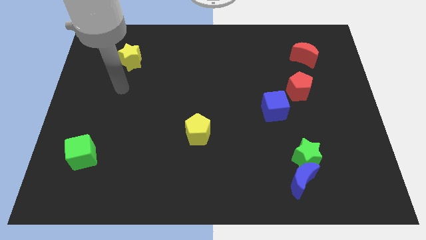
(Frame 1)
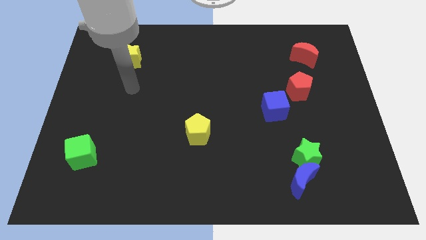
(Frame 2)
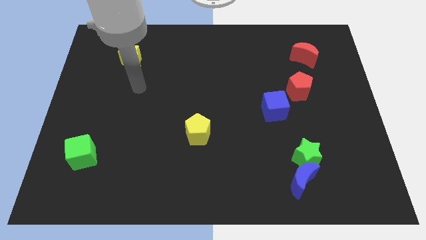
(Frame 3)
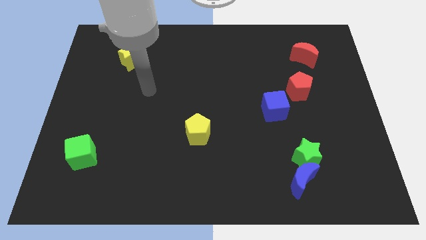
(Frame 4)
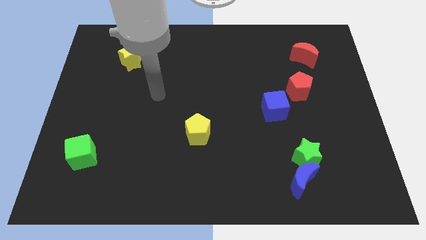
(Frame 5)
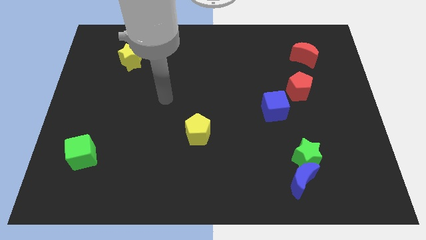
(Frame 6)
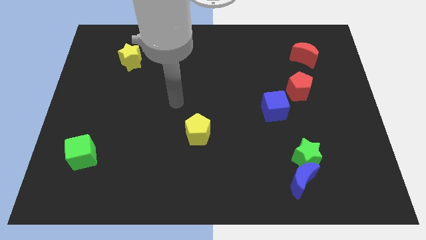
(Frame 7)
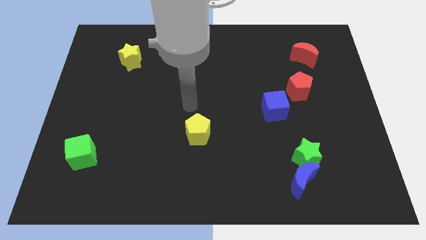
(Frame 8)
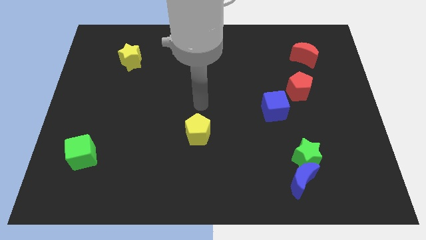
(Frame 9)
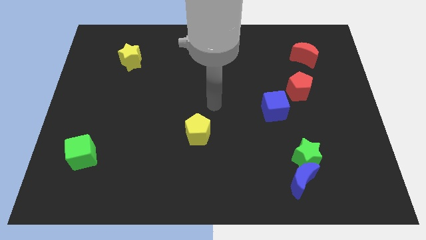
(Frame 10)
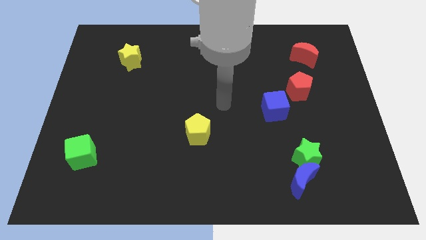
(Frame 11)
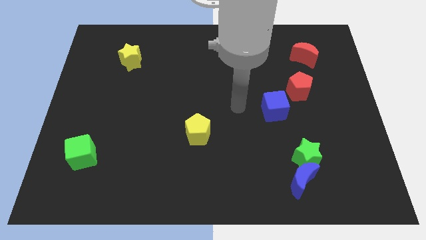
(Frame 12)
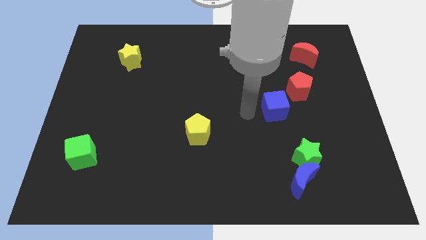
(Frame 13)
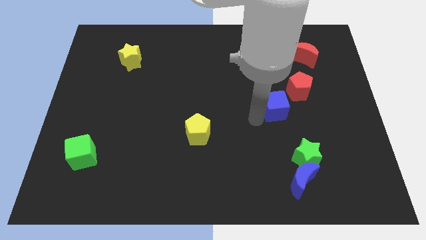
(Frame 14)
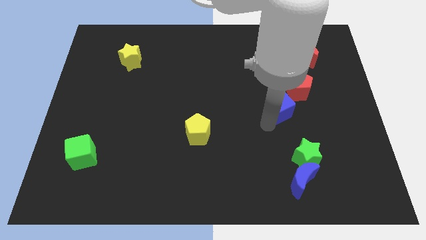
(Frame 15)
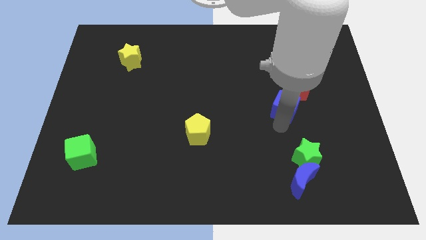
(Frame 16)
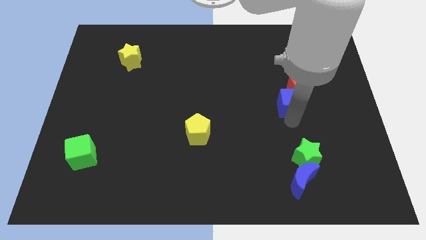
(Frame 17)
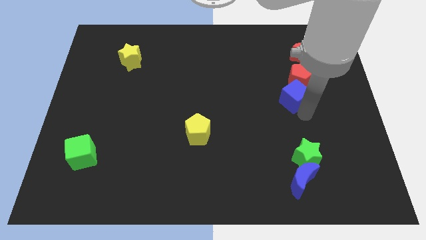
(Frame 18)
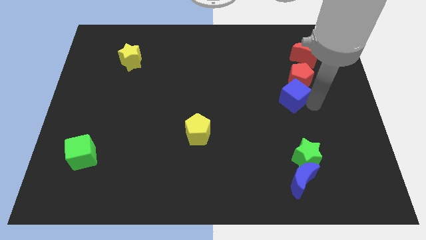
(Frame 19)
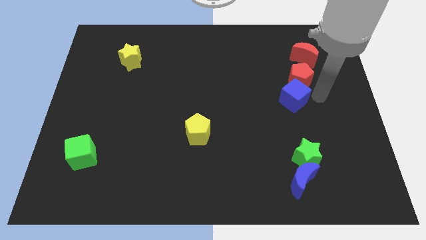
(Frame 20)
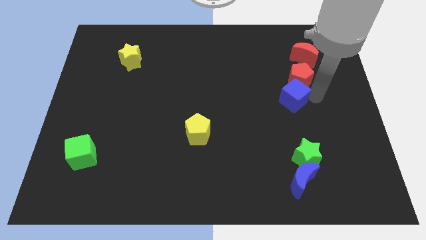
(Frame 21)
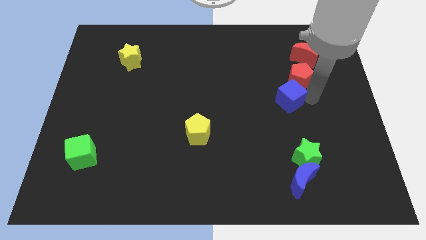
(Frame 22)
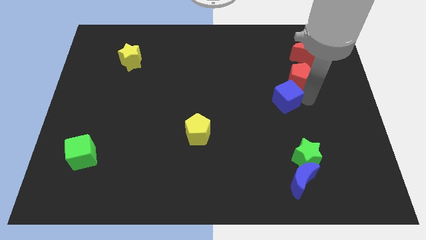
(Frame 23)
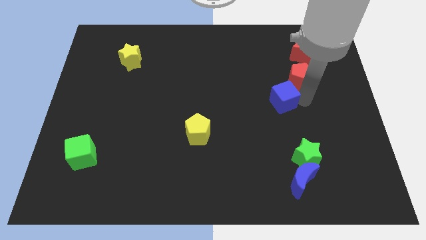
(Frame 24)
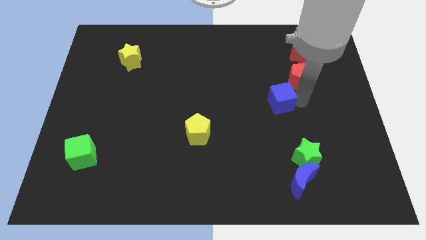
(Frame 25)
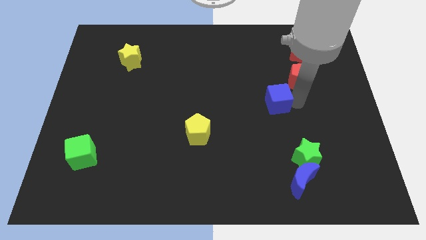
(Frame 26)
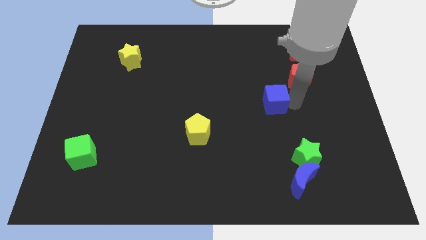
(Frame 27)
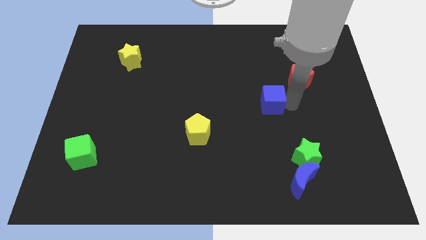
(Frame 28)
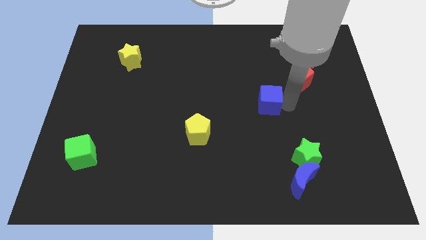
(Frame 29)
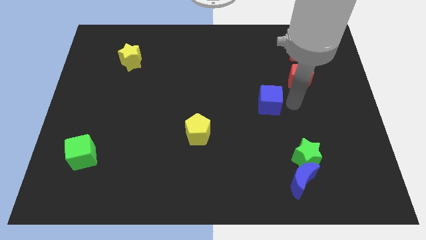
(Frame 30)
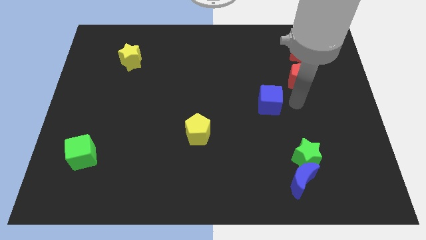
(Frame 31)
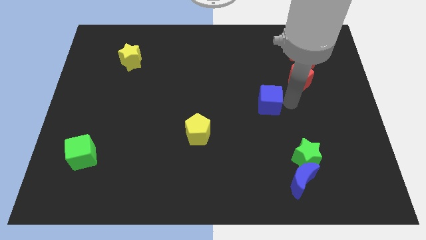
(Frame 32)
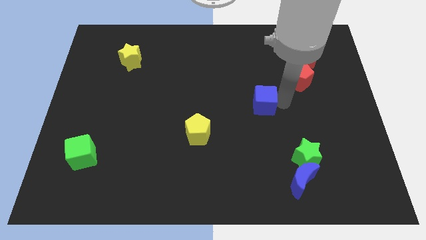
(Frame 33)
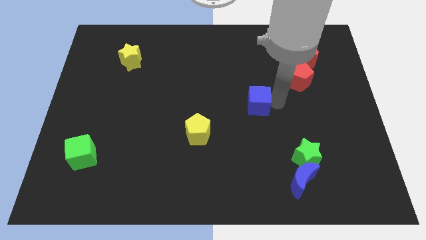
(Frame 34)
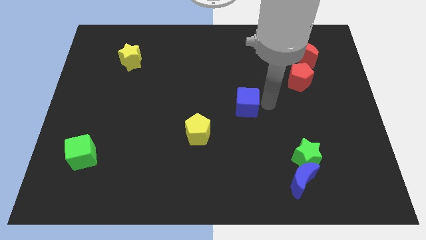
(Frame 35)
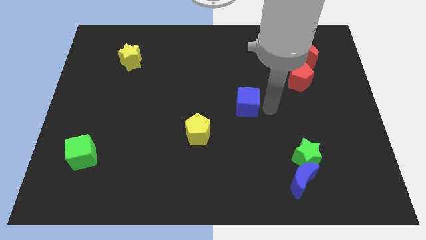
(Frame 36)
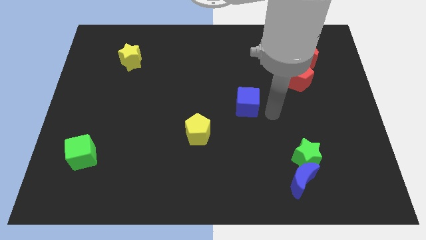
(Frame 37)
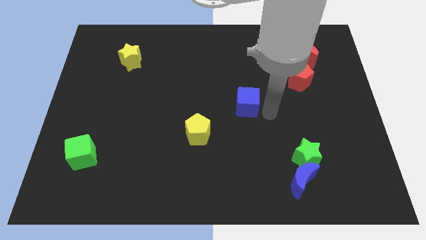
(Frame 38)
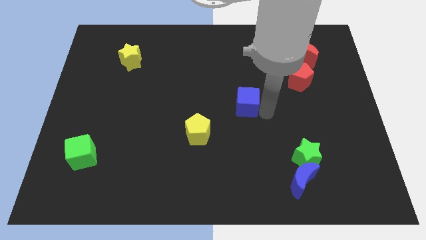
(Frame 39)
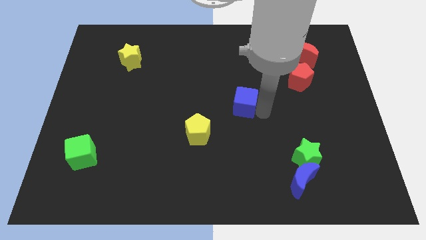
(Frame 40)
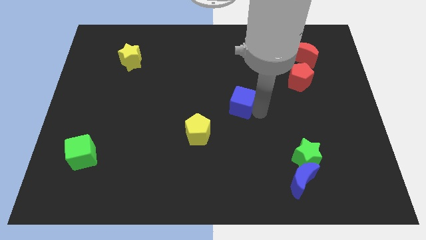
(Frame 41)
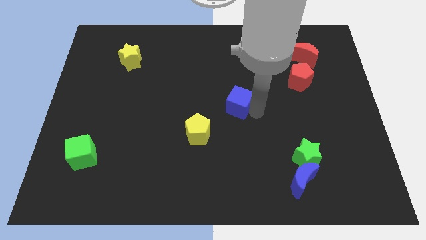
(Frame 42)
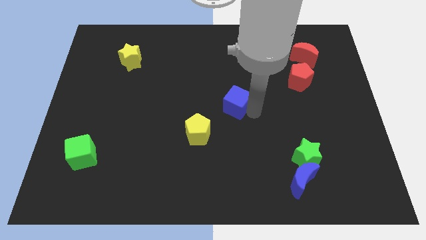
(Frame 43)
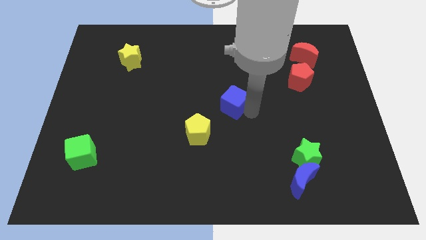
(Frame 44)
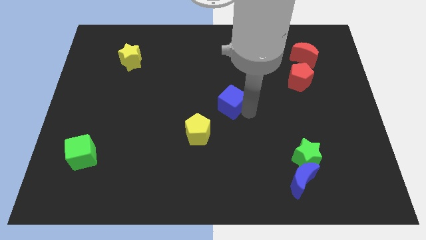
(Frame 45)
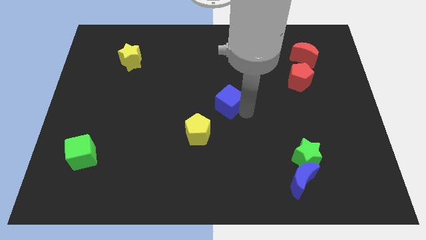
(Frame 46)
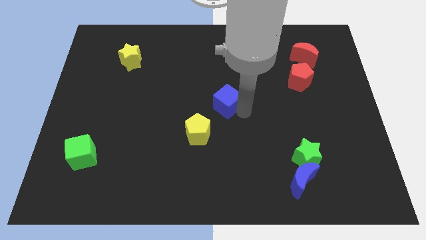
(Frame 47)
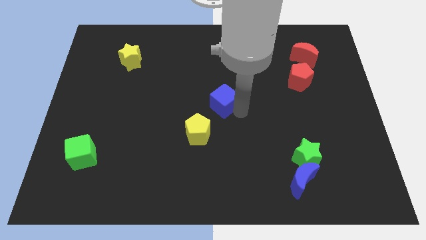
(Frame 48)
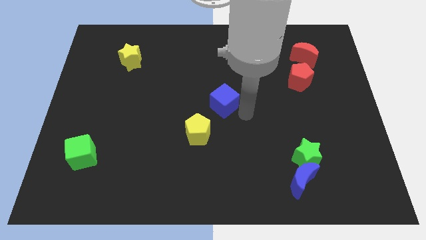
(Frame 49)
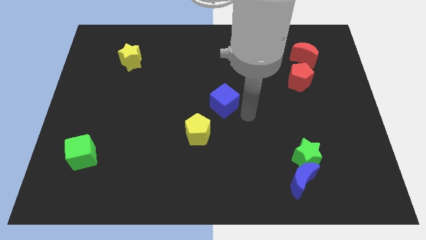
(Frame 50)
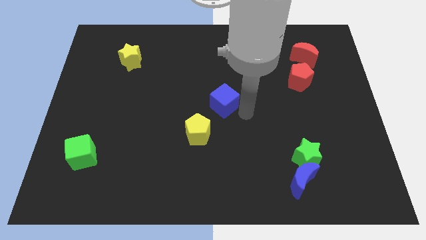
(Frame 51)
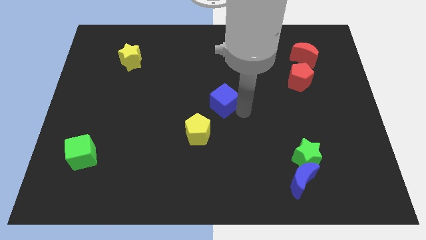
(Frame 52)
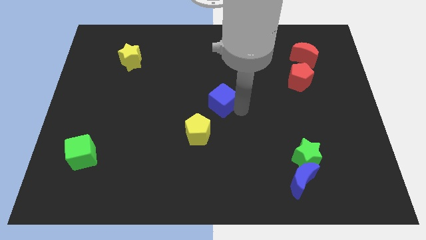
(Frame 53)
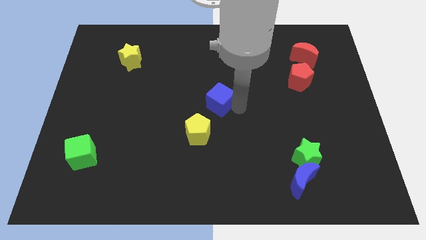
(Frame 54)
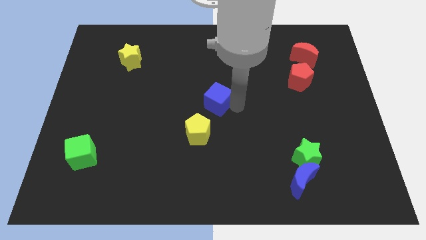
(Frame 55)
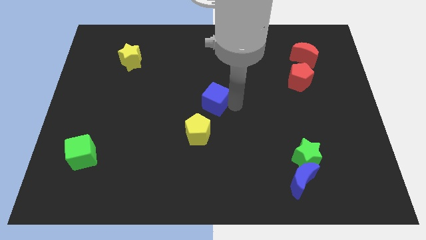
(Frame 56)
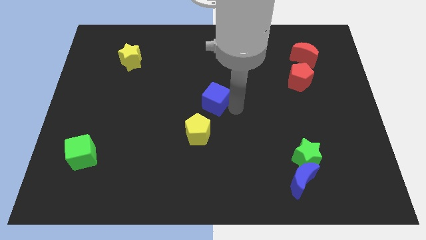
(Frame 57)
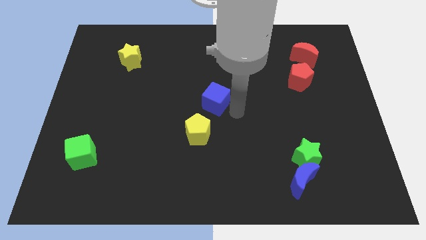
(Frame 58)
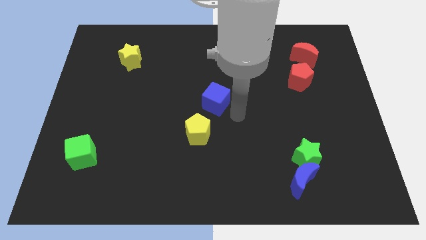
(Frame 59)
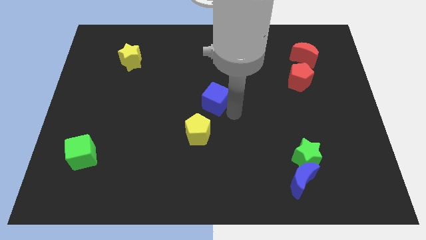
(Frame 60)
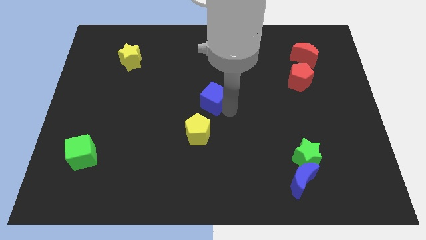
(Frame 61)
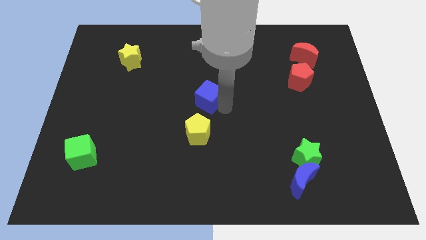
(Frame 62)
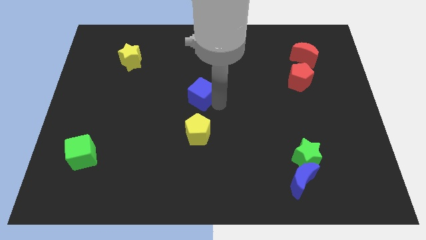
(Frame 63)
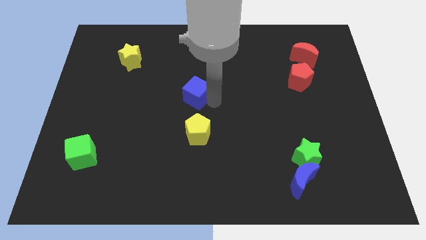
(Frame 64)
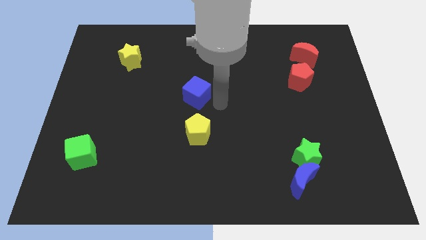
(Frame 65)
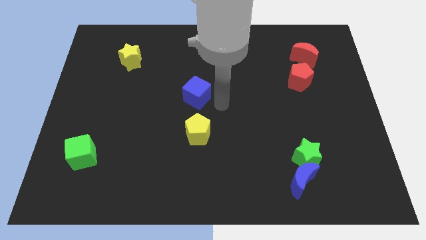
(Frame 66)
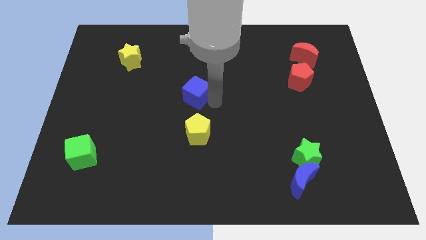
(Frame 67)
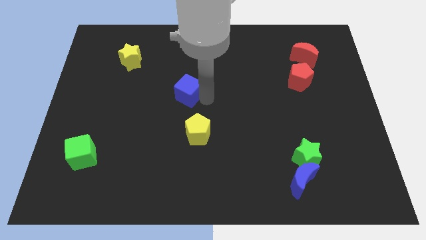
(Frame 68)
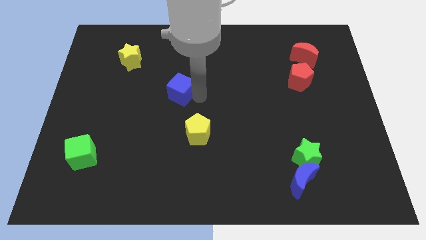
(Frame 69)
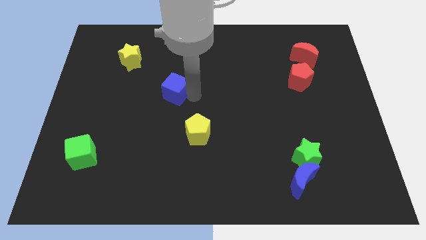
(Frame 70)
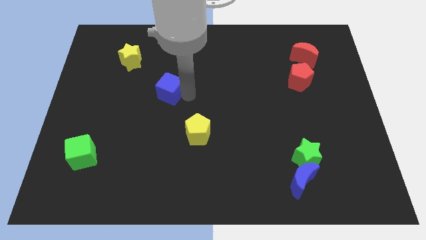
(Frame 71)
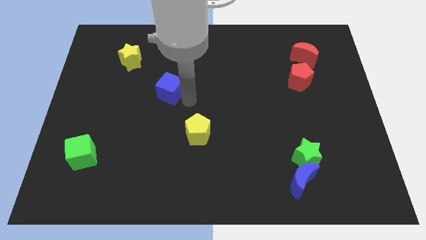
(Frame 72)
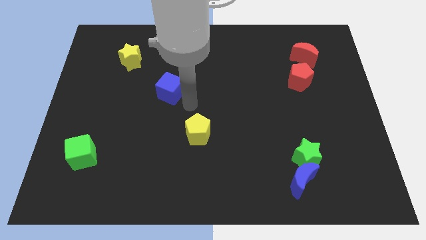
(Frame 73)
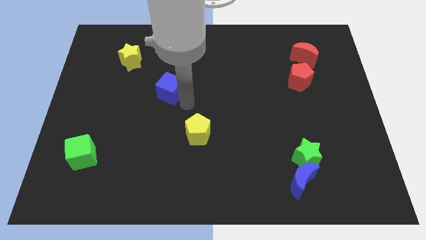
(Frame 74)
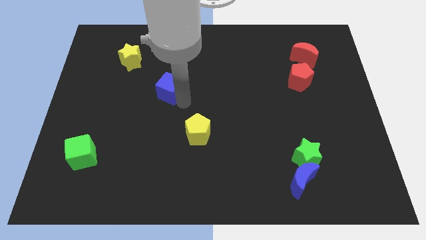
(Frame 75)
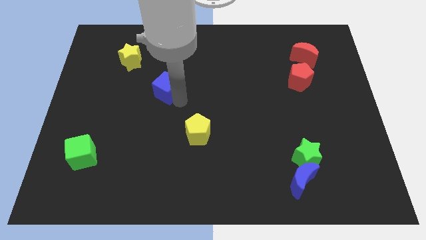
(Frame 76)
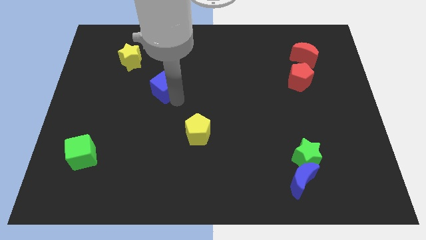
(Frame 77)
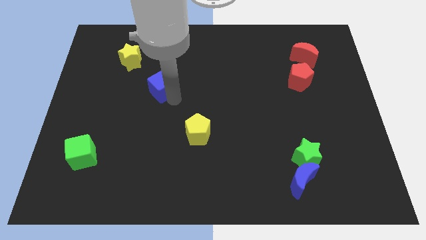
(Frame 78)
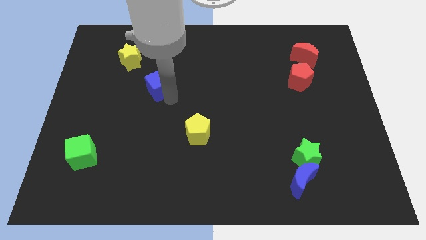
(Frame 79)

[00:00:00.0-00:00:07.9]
slide the blue cube diagonally down and to the right of the yellow star

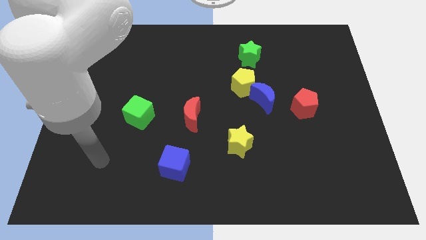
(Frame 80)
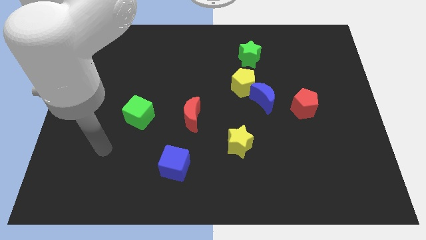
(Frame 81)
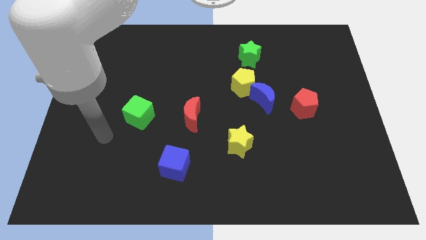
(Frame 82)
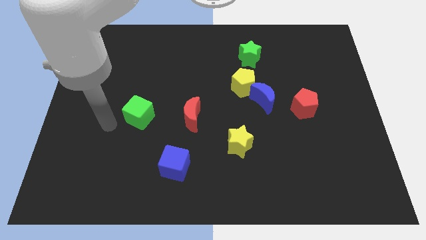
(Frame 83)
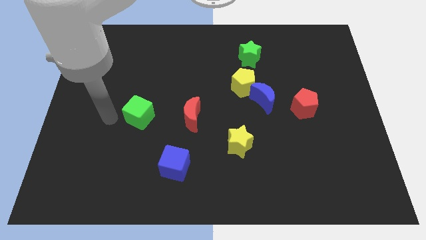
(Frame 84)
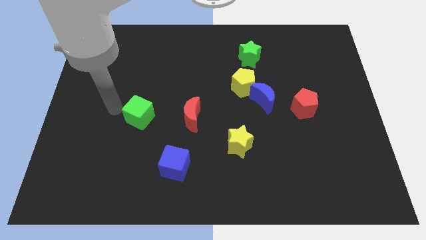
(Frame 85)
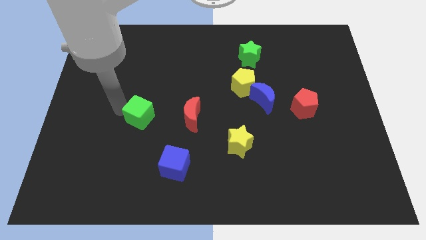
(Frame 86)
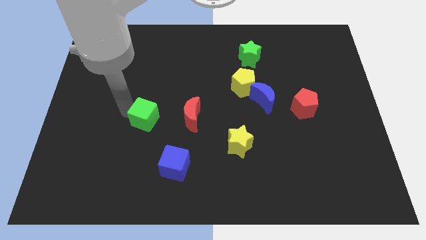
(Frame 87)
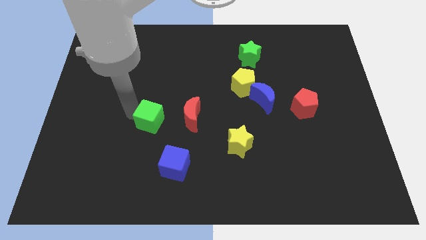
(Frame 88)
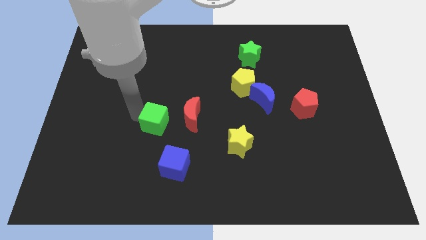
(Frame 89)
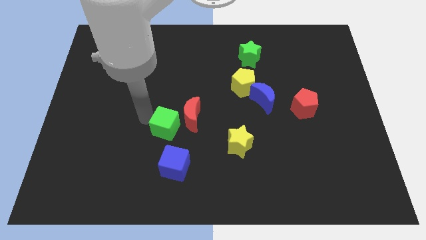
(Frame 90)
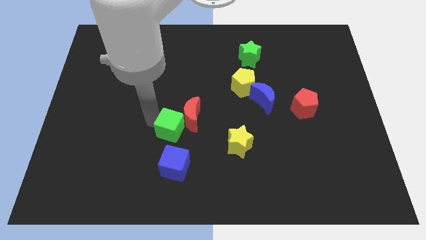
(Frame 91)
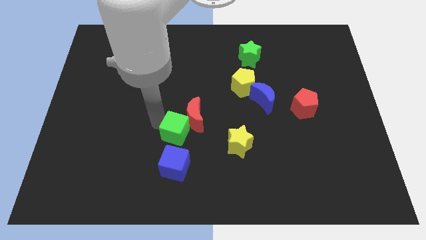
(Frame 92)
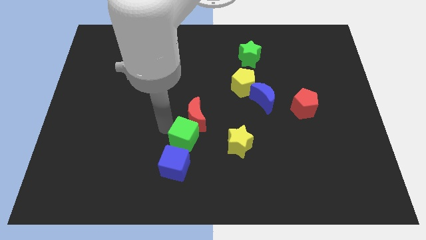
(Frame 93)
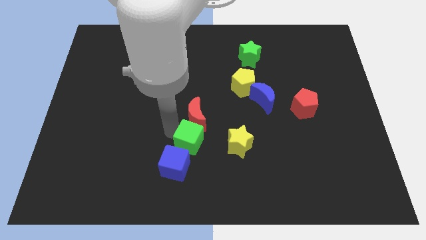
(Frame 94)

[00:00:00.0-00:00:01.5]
slide the green cube to the bottom right of the red moon
